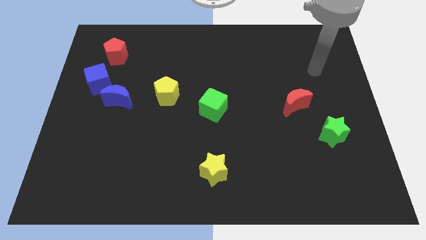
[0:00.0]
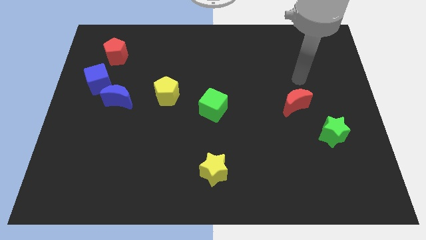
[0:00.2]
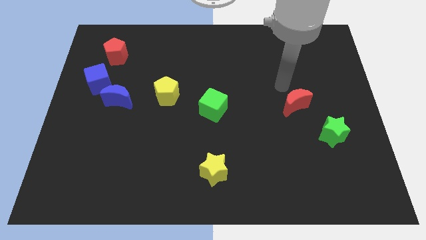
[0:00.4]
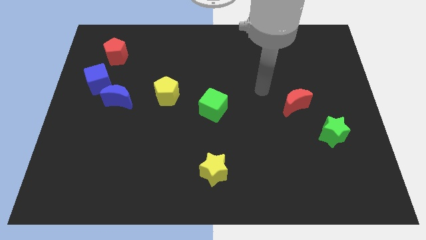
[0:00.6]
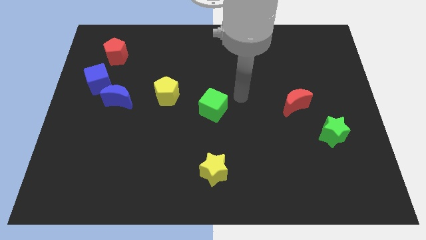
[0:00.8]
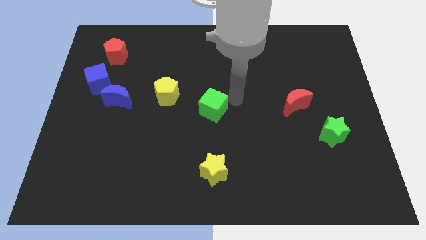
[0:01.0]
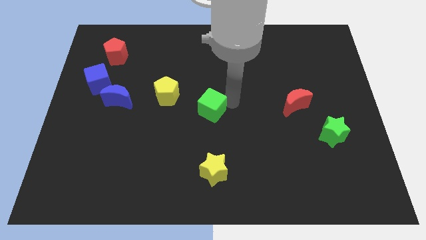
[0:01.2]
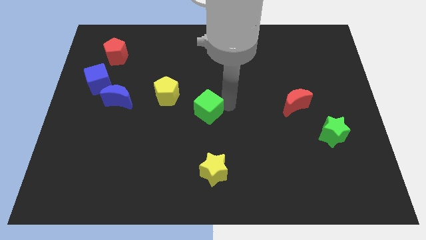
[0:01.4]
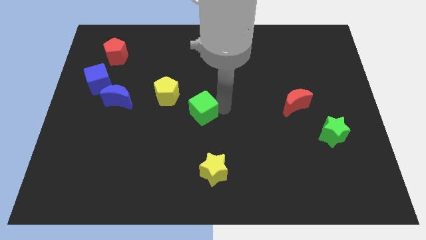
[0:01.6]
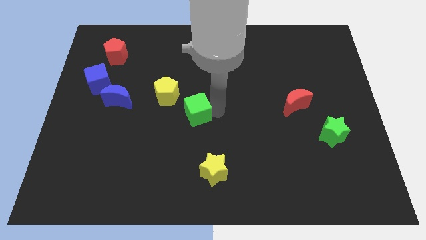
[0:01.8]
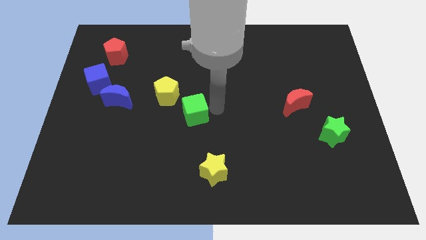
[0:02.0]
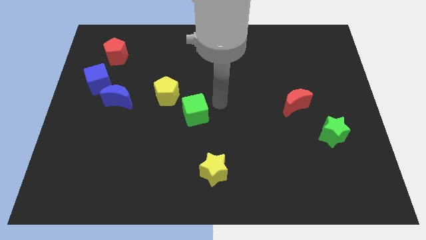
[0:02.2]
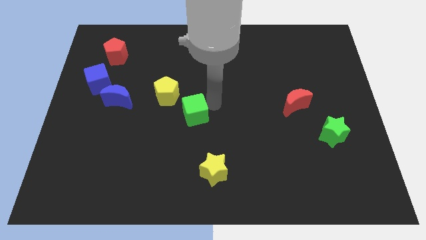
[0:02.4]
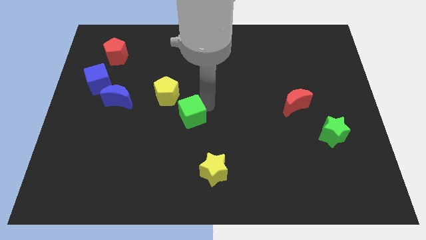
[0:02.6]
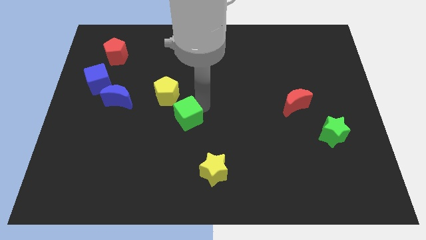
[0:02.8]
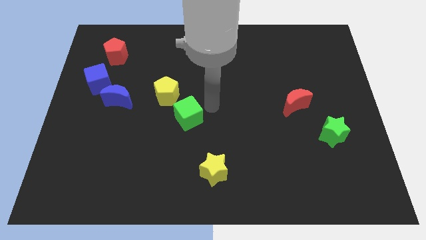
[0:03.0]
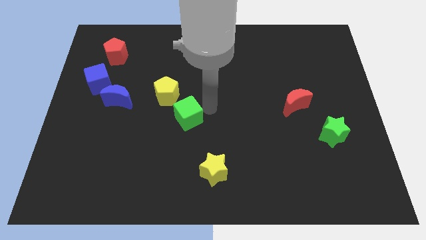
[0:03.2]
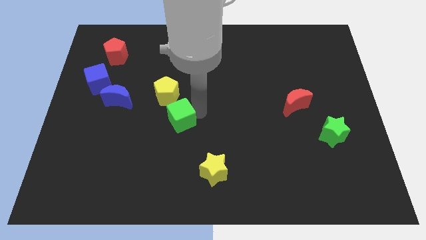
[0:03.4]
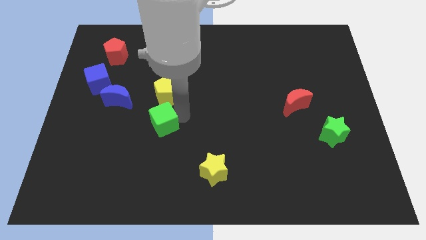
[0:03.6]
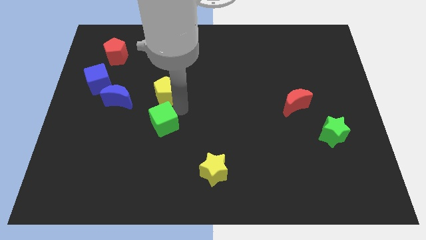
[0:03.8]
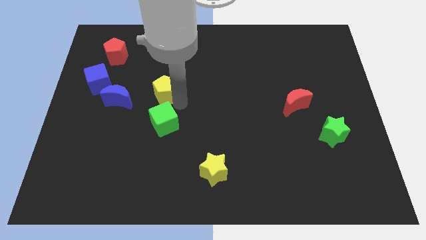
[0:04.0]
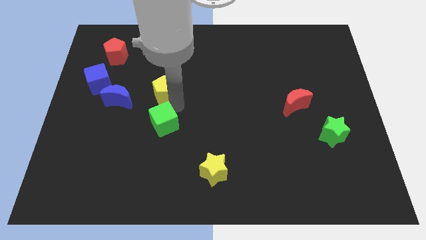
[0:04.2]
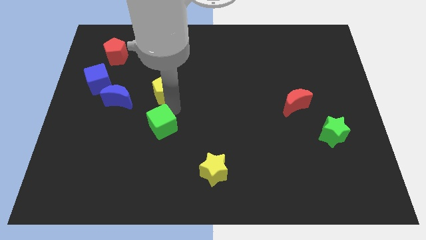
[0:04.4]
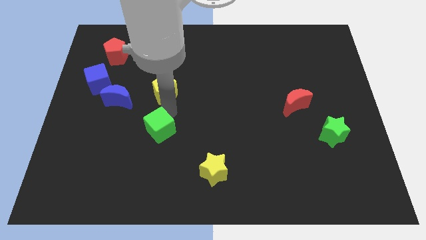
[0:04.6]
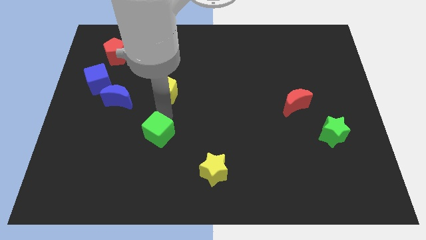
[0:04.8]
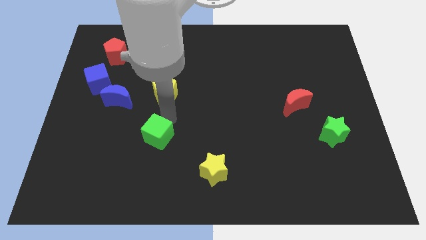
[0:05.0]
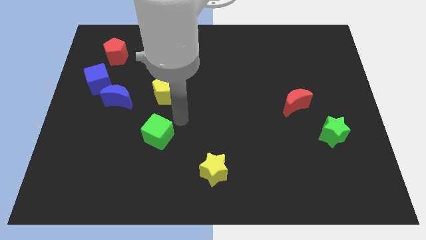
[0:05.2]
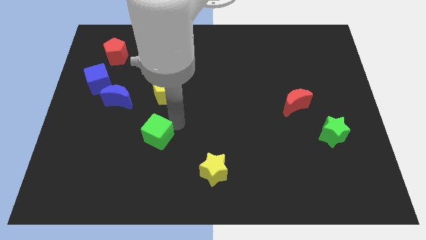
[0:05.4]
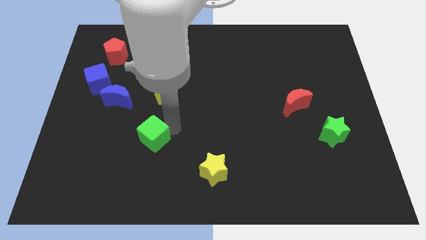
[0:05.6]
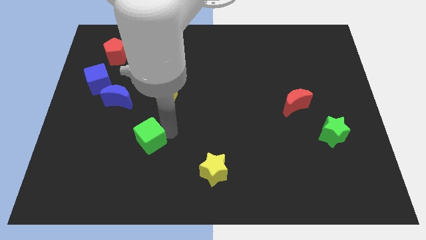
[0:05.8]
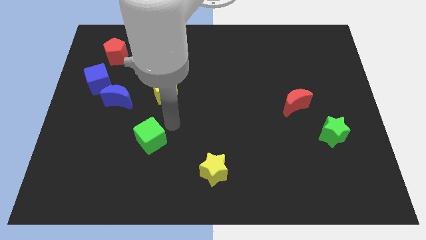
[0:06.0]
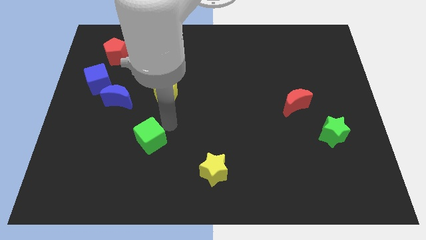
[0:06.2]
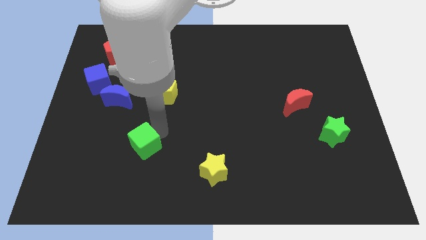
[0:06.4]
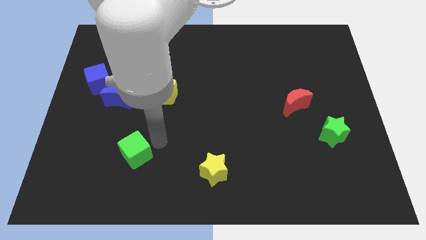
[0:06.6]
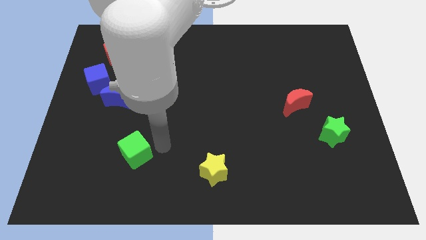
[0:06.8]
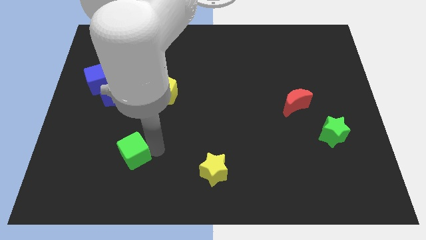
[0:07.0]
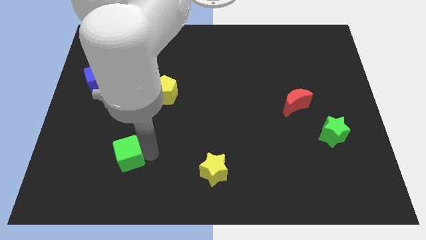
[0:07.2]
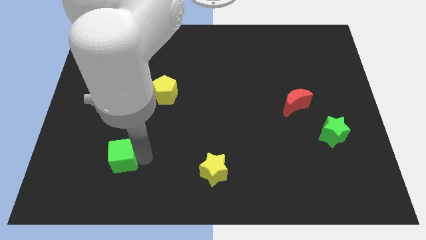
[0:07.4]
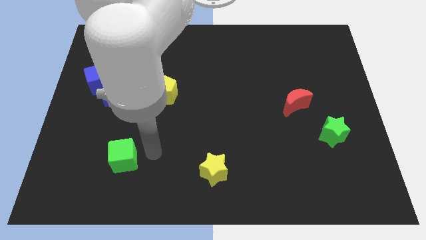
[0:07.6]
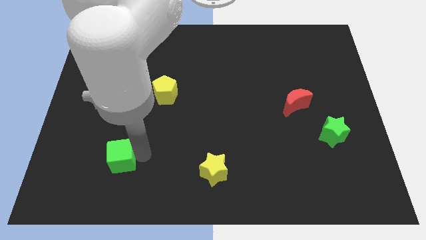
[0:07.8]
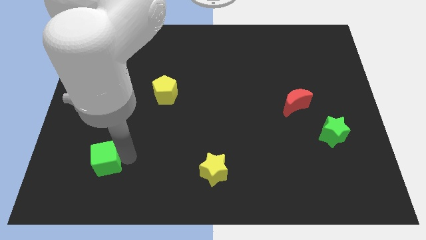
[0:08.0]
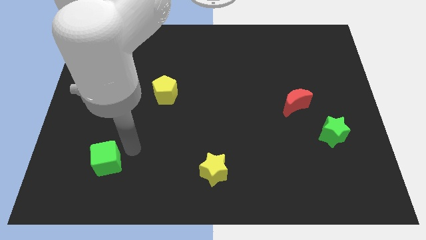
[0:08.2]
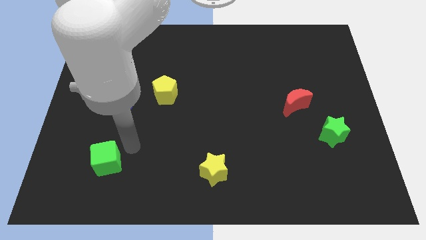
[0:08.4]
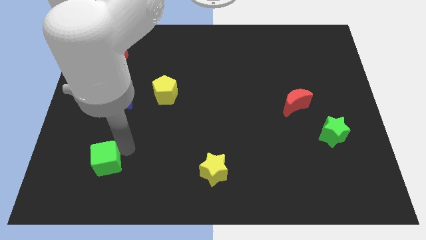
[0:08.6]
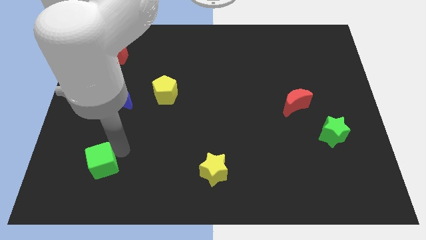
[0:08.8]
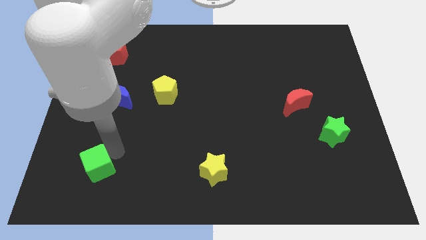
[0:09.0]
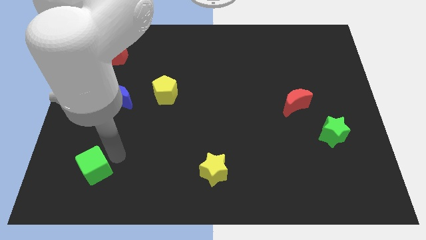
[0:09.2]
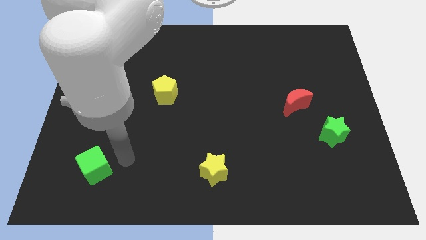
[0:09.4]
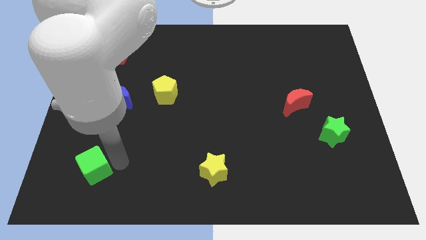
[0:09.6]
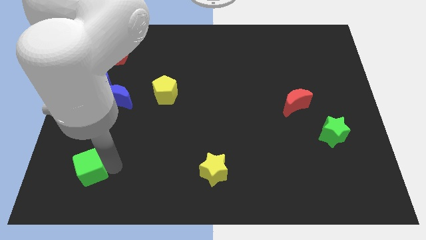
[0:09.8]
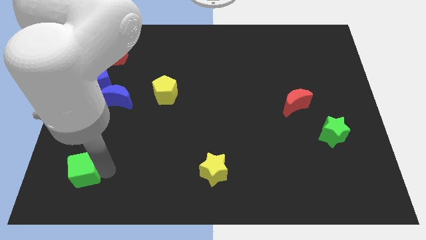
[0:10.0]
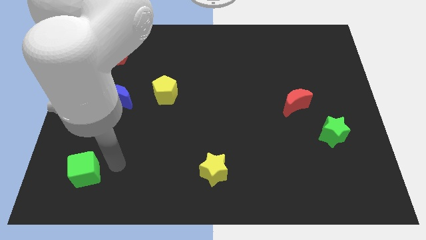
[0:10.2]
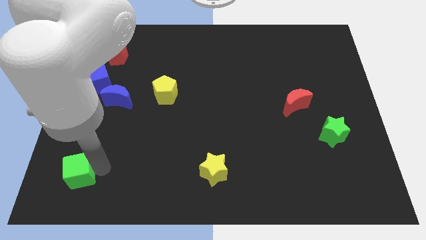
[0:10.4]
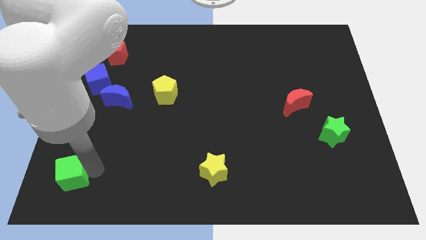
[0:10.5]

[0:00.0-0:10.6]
slide the green cube to the bottom left

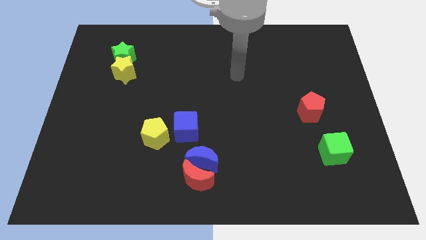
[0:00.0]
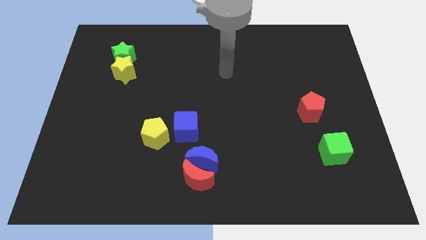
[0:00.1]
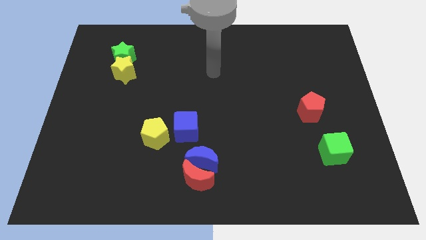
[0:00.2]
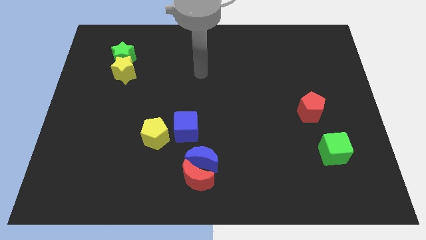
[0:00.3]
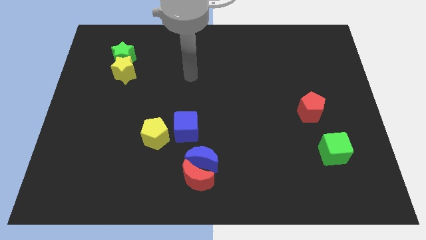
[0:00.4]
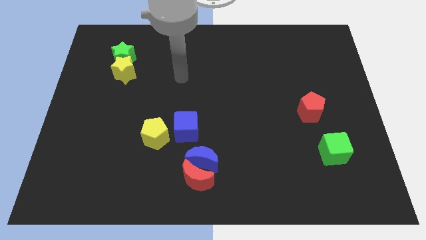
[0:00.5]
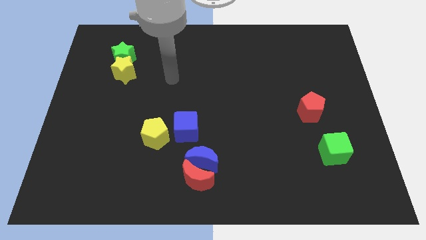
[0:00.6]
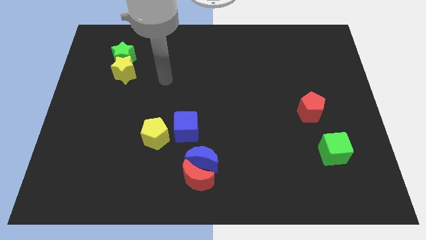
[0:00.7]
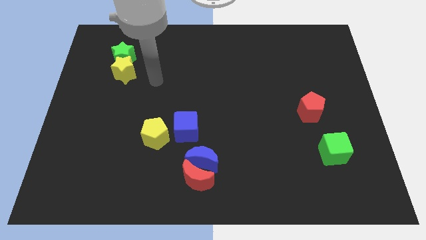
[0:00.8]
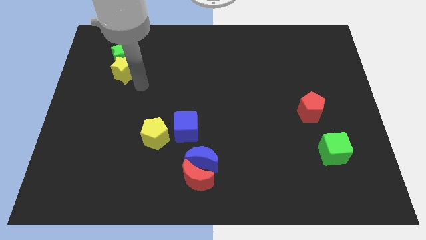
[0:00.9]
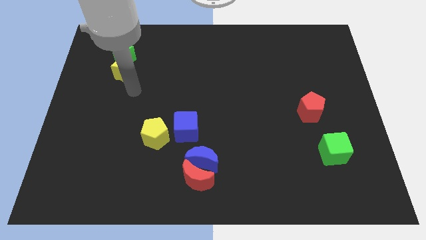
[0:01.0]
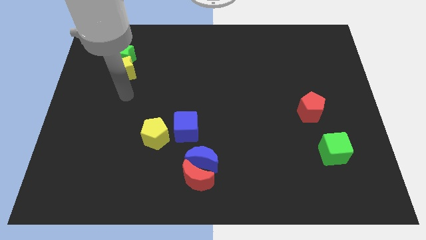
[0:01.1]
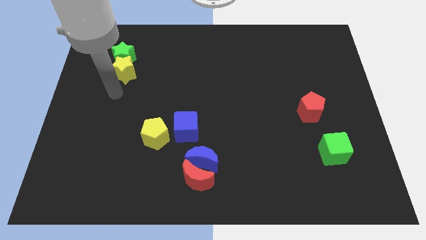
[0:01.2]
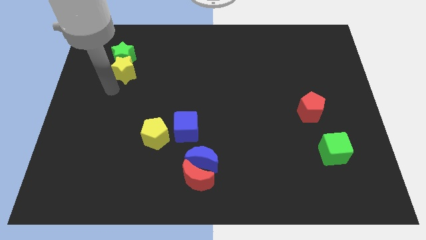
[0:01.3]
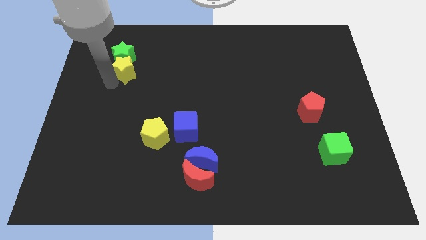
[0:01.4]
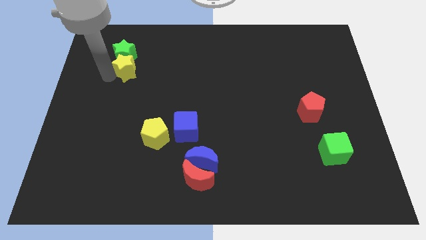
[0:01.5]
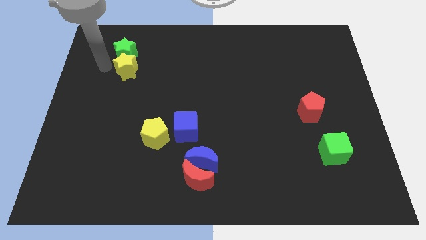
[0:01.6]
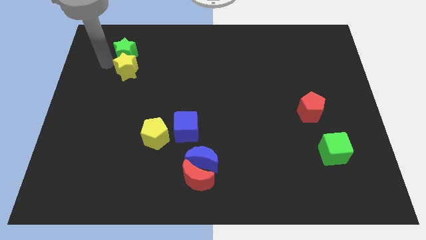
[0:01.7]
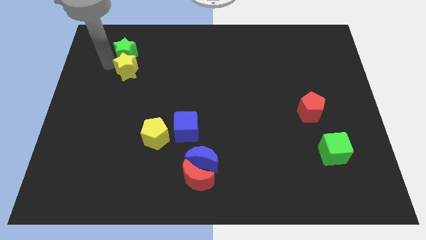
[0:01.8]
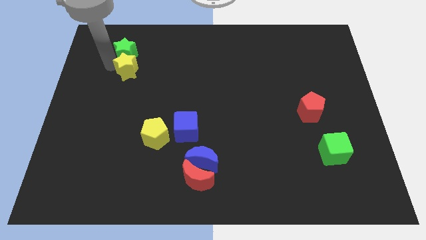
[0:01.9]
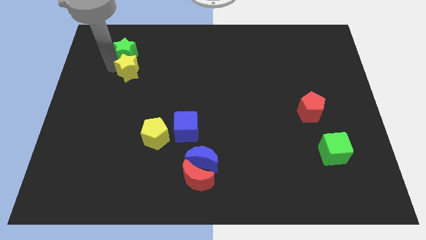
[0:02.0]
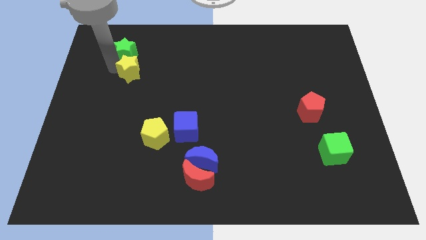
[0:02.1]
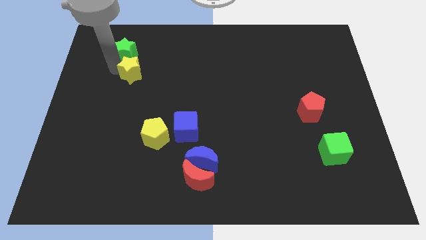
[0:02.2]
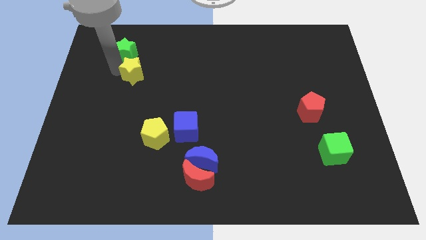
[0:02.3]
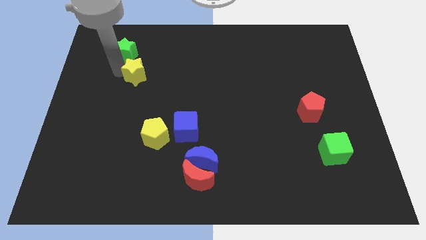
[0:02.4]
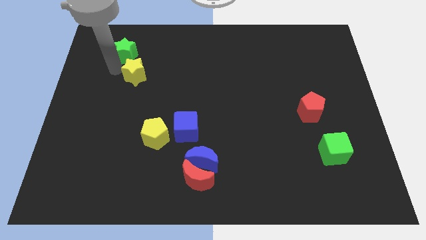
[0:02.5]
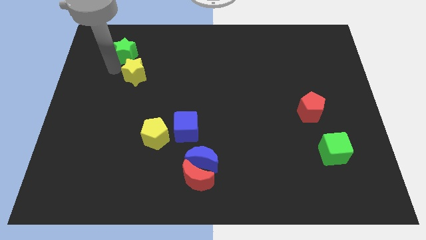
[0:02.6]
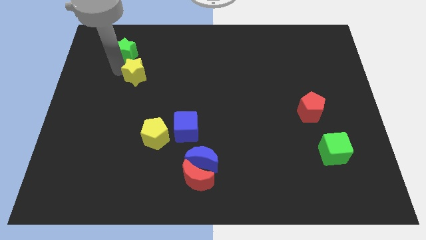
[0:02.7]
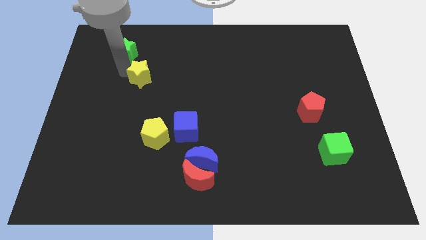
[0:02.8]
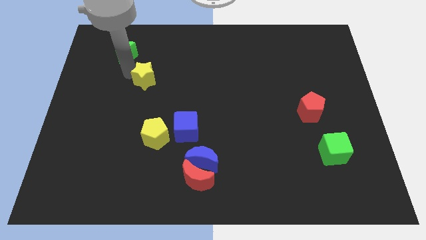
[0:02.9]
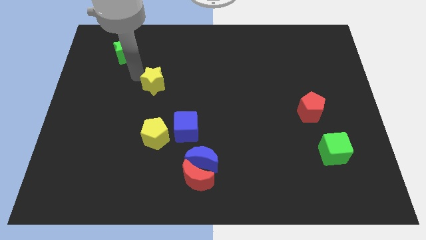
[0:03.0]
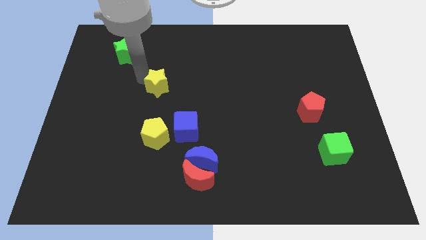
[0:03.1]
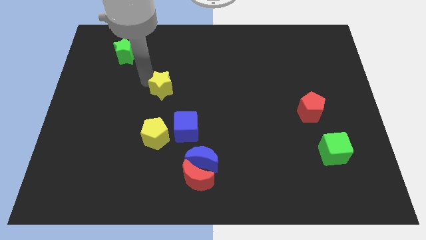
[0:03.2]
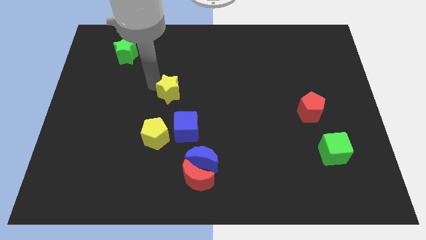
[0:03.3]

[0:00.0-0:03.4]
slide the yellow star to the middle of the board
